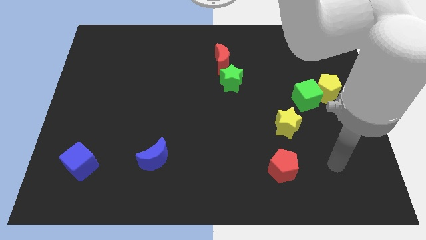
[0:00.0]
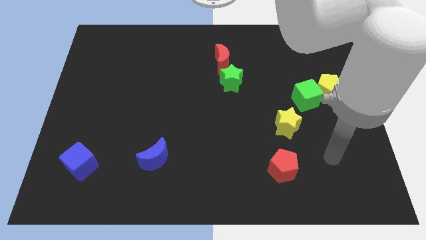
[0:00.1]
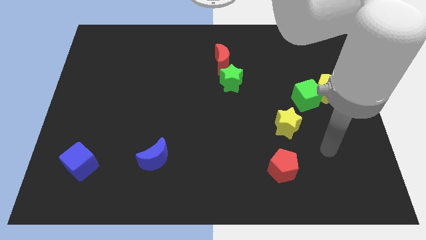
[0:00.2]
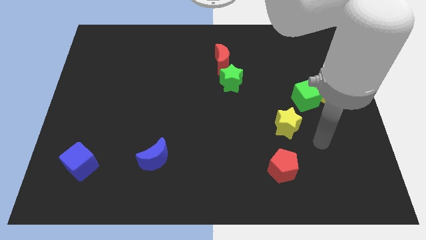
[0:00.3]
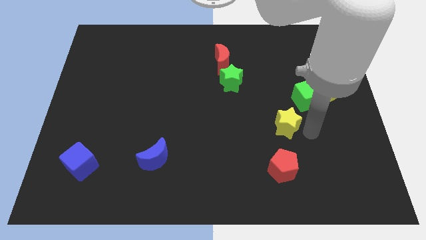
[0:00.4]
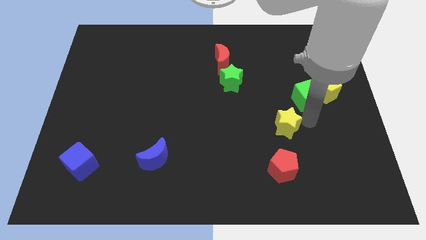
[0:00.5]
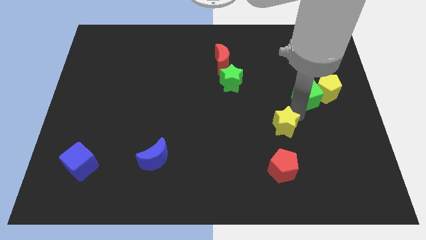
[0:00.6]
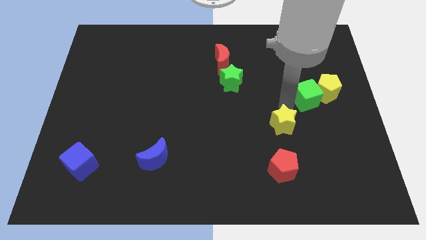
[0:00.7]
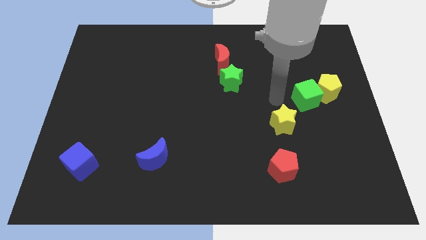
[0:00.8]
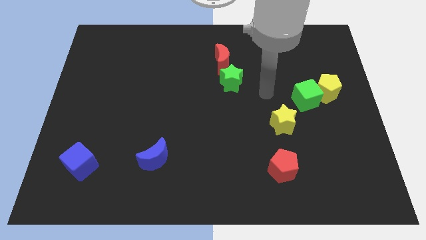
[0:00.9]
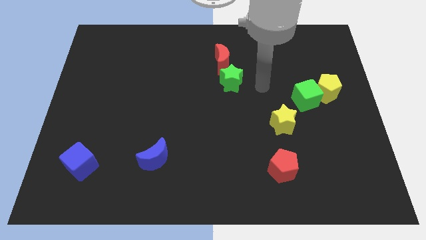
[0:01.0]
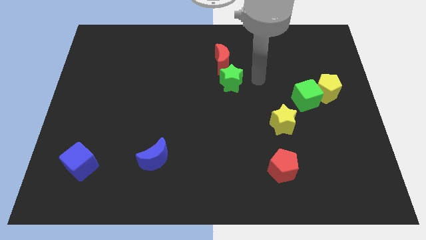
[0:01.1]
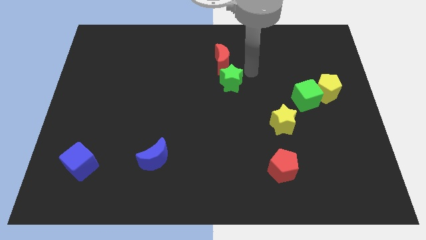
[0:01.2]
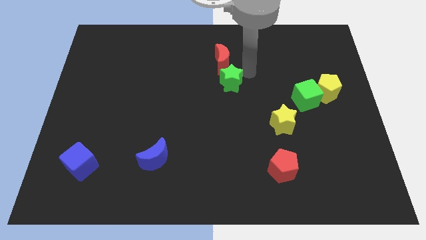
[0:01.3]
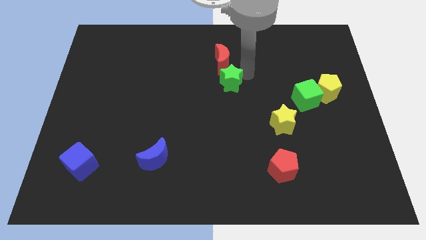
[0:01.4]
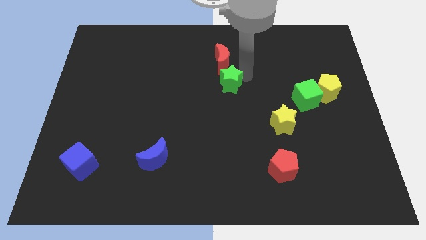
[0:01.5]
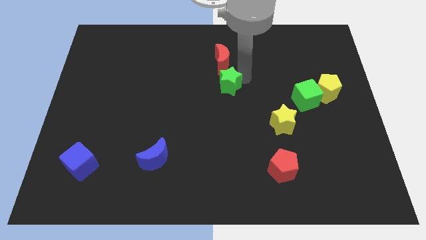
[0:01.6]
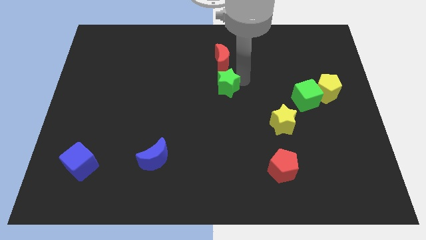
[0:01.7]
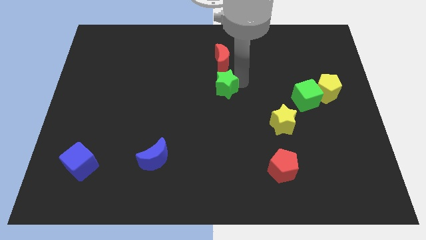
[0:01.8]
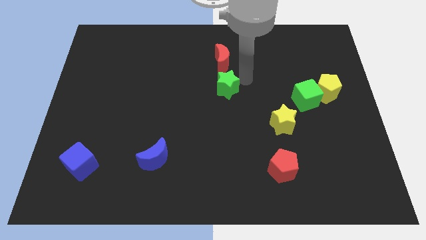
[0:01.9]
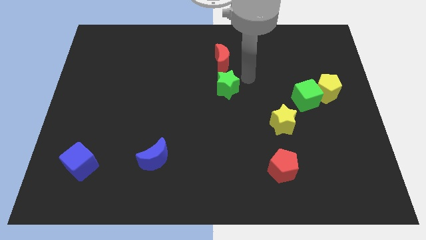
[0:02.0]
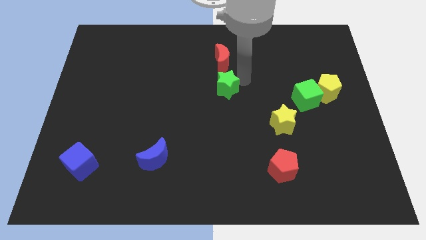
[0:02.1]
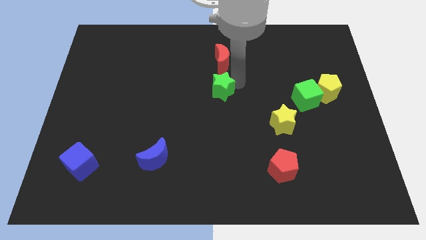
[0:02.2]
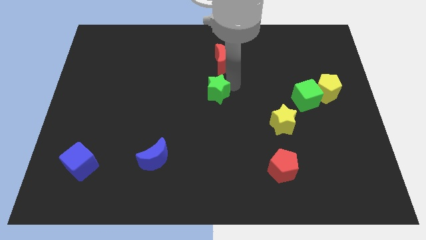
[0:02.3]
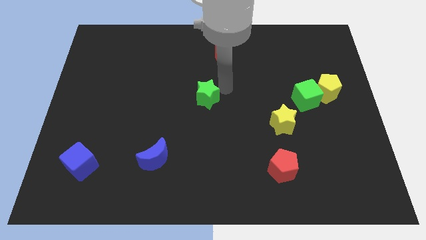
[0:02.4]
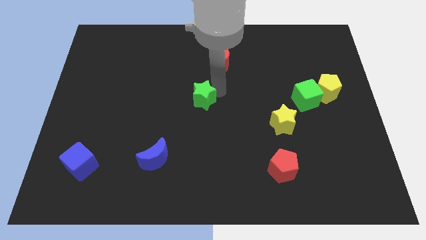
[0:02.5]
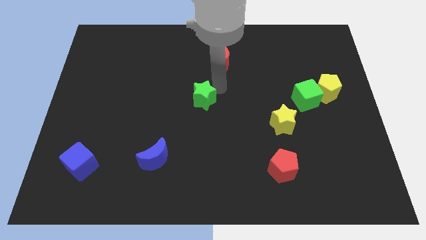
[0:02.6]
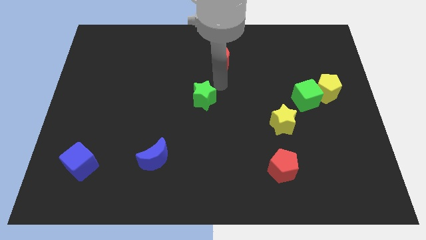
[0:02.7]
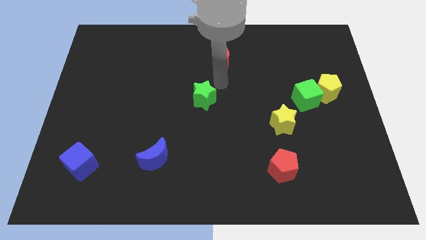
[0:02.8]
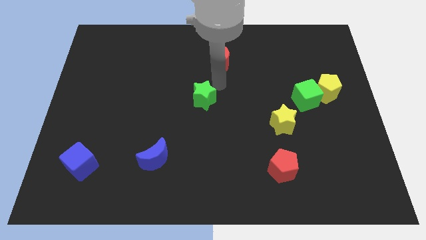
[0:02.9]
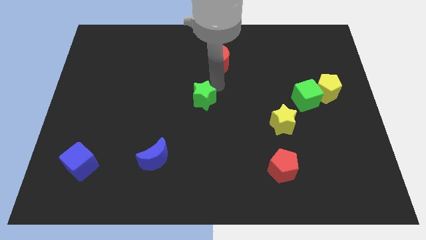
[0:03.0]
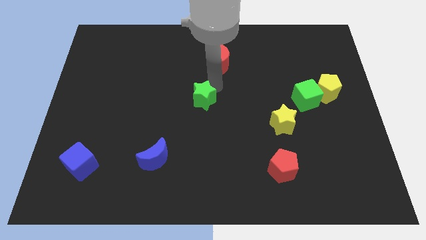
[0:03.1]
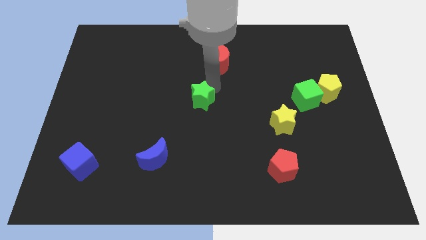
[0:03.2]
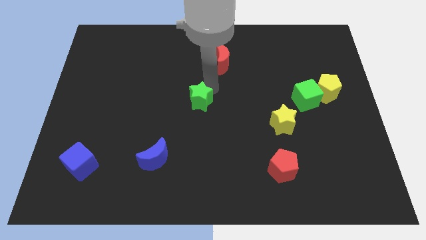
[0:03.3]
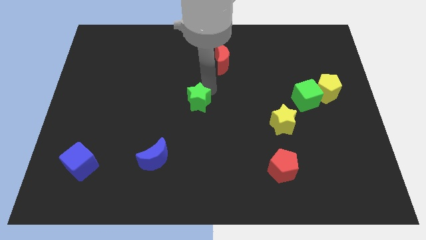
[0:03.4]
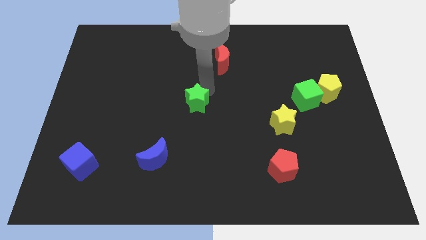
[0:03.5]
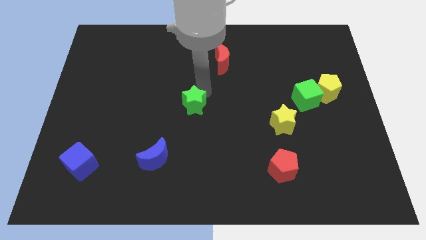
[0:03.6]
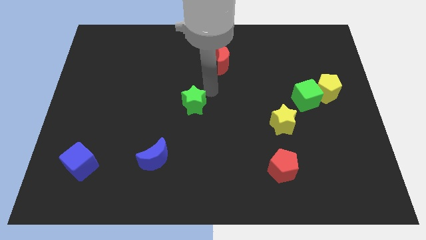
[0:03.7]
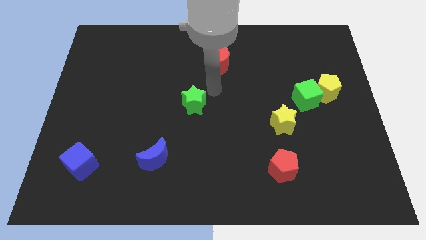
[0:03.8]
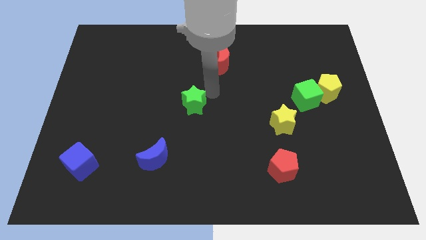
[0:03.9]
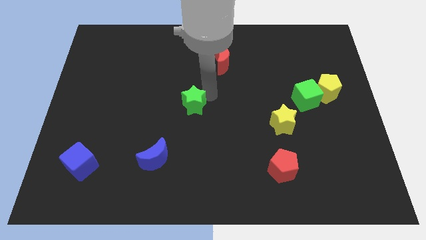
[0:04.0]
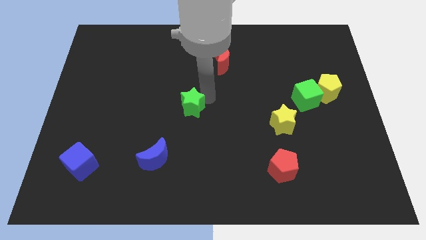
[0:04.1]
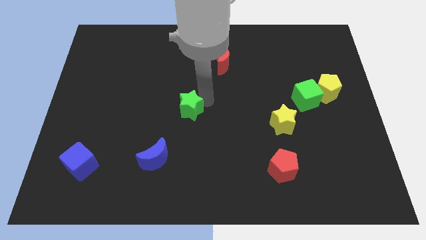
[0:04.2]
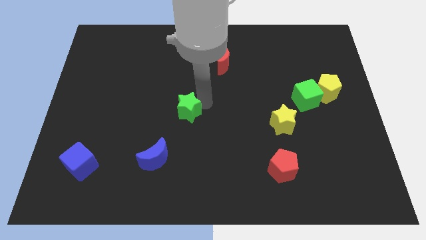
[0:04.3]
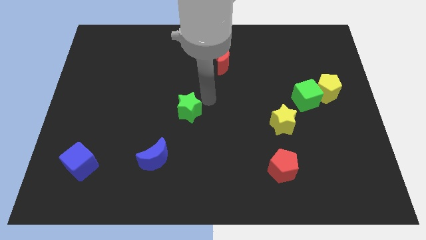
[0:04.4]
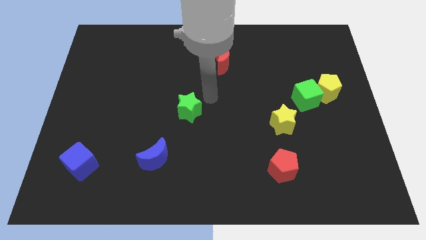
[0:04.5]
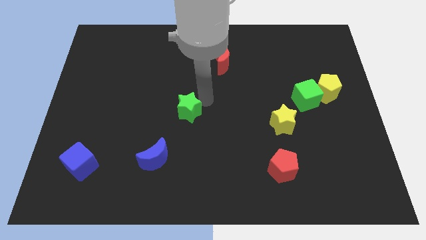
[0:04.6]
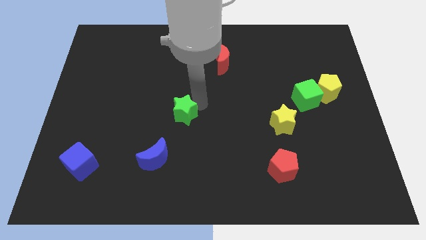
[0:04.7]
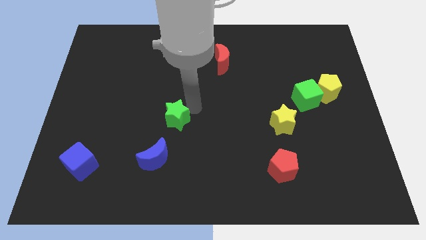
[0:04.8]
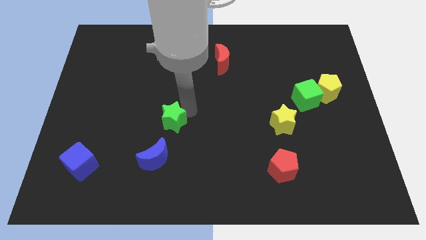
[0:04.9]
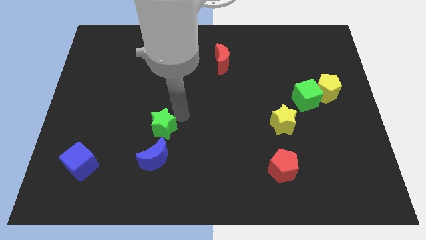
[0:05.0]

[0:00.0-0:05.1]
move the green star diagonally down and left

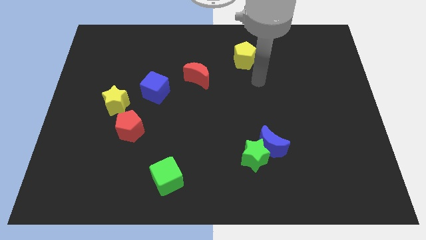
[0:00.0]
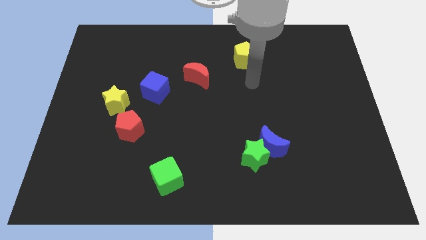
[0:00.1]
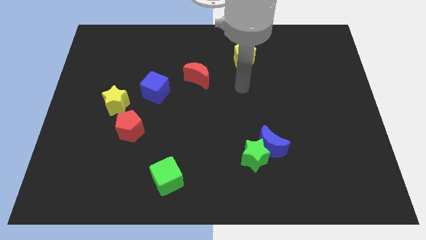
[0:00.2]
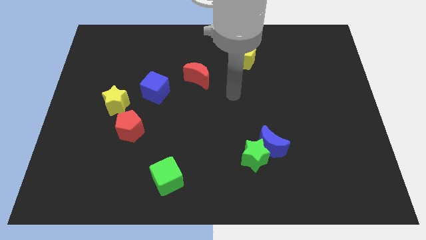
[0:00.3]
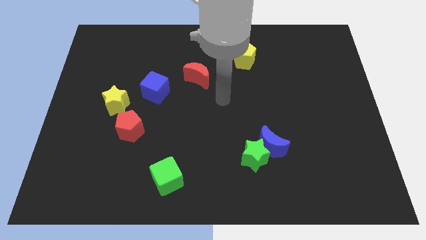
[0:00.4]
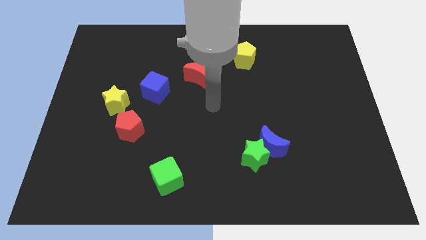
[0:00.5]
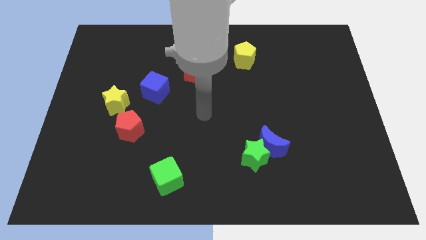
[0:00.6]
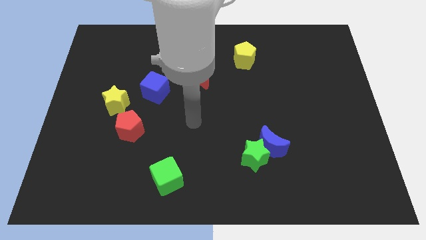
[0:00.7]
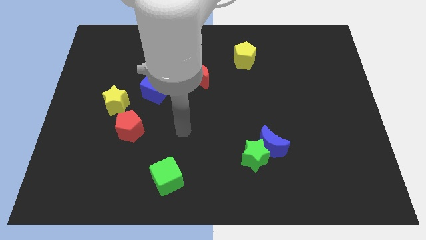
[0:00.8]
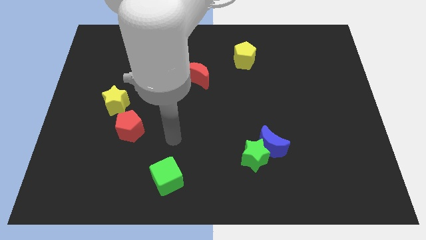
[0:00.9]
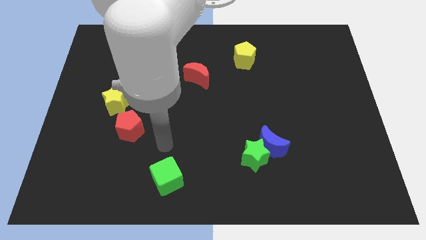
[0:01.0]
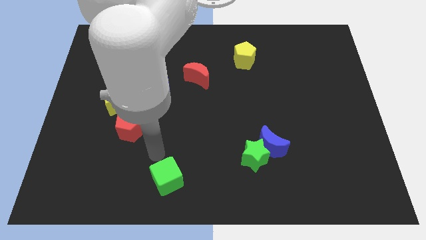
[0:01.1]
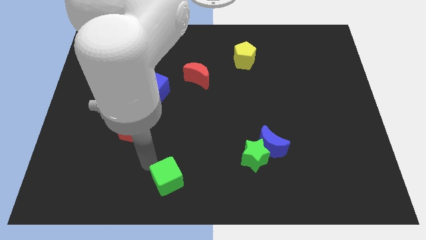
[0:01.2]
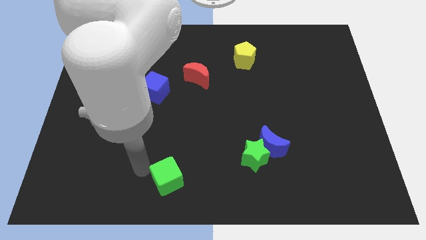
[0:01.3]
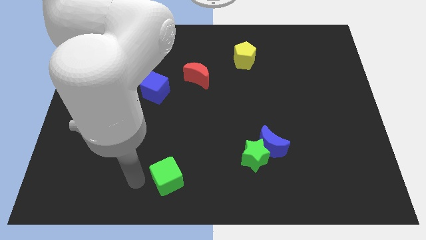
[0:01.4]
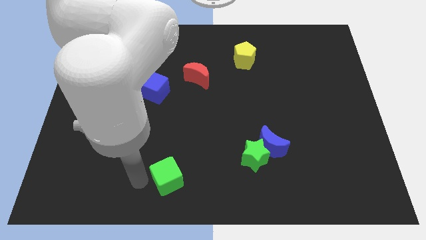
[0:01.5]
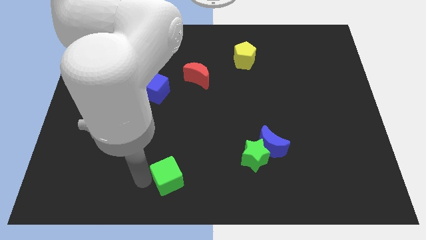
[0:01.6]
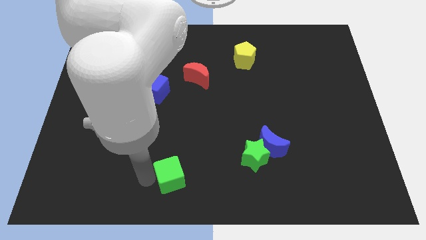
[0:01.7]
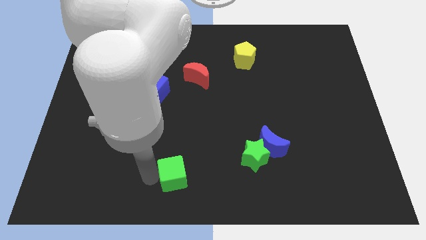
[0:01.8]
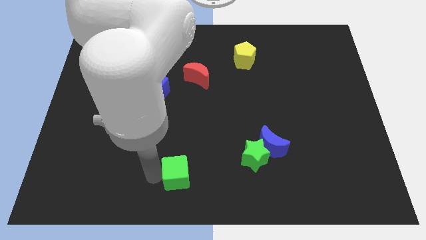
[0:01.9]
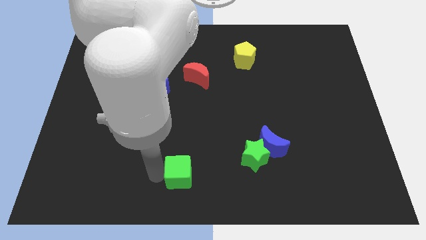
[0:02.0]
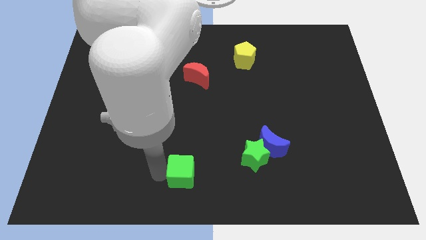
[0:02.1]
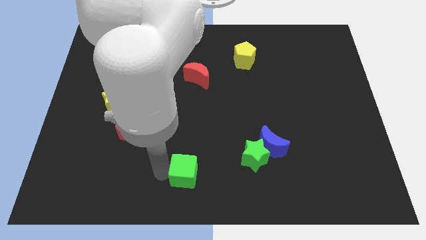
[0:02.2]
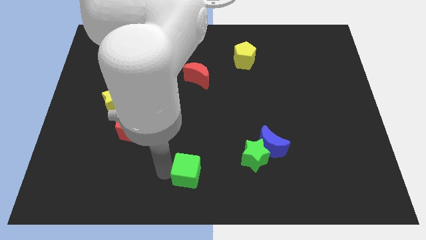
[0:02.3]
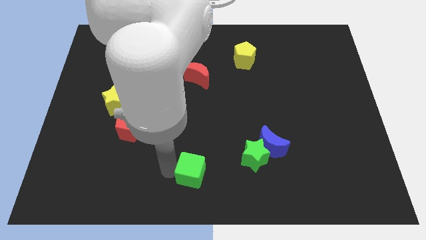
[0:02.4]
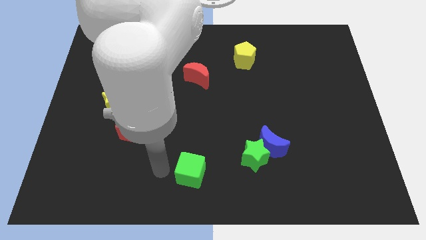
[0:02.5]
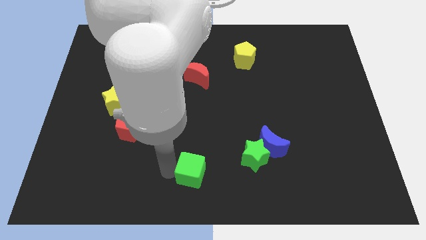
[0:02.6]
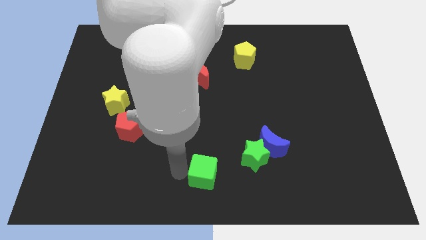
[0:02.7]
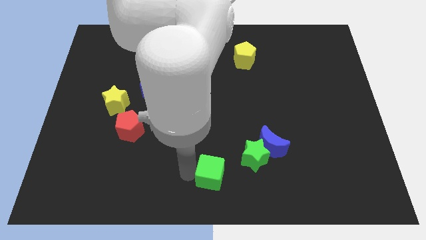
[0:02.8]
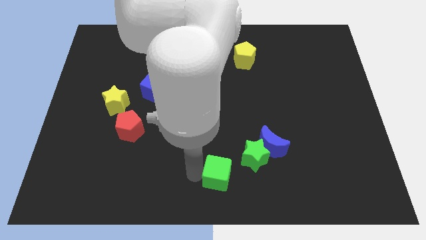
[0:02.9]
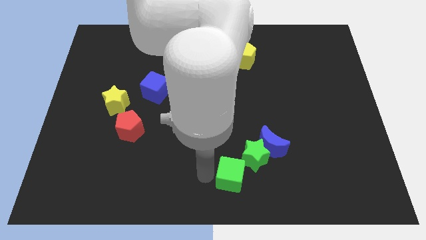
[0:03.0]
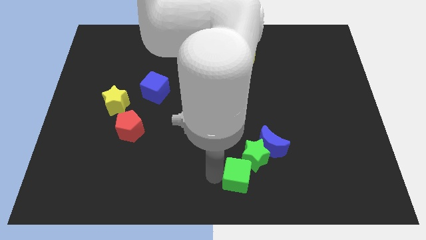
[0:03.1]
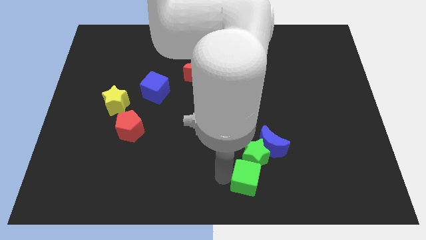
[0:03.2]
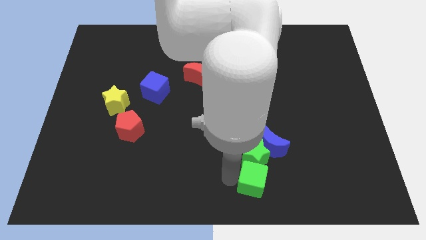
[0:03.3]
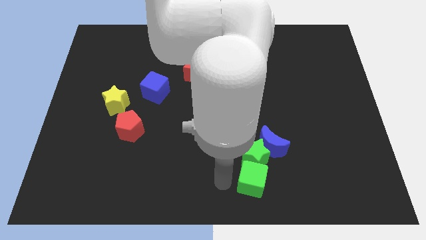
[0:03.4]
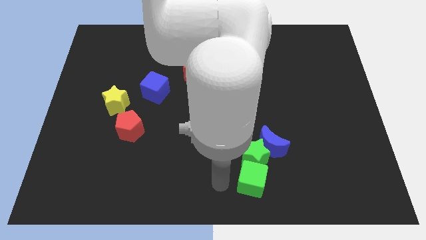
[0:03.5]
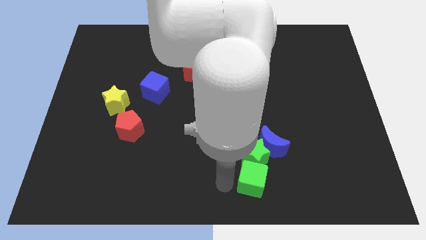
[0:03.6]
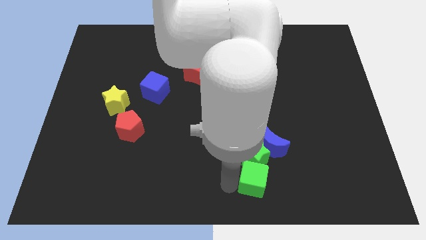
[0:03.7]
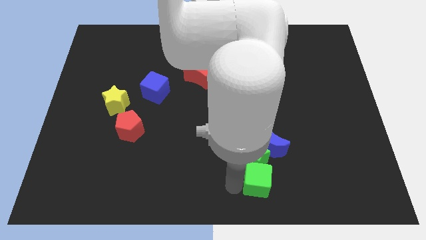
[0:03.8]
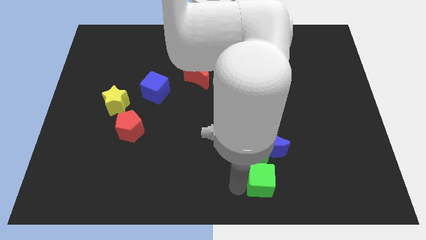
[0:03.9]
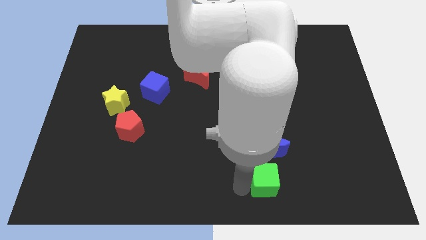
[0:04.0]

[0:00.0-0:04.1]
move the green cube to the right
